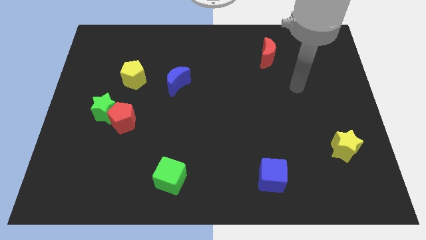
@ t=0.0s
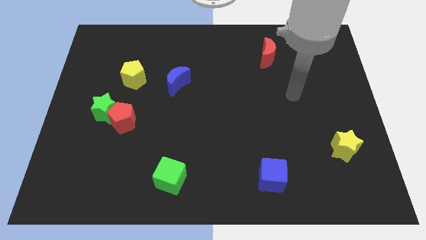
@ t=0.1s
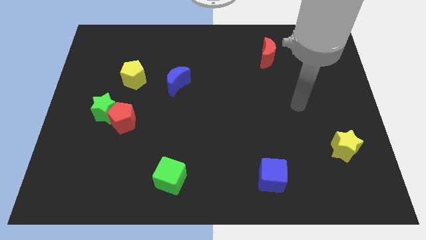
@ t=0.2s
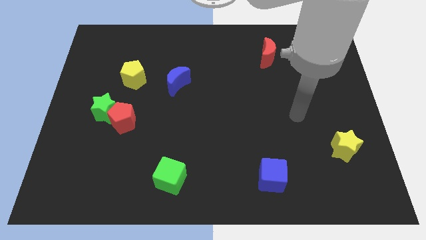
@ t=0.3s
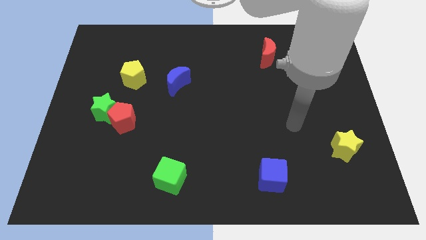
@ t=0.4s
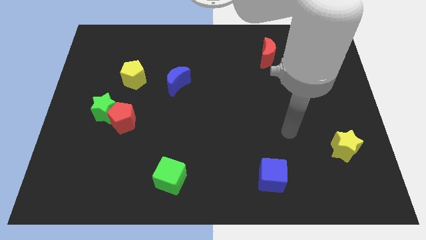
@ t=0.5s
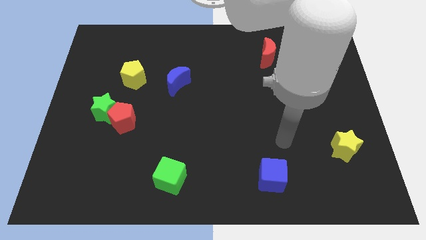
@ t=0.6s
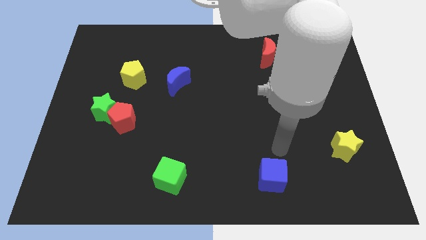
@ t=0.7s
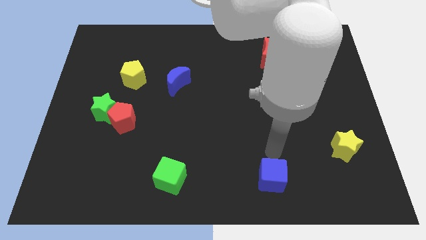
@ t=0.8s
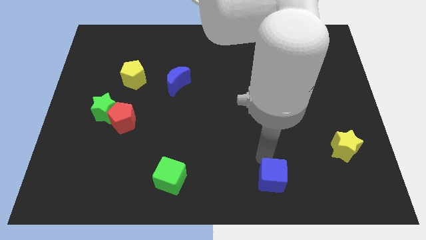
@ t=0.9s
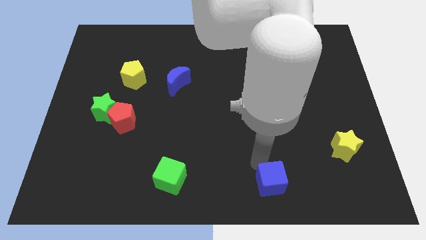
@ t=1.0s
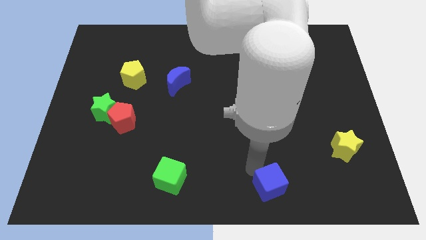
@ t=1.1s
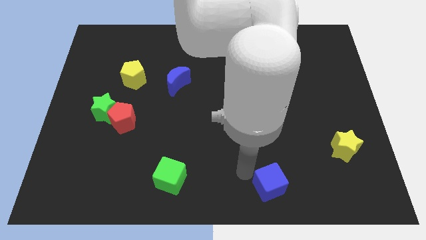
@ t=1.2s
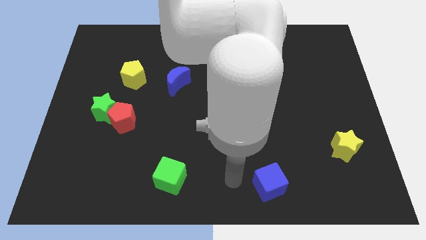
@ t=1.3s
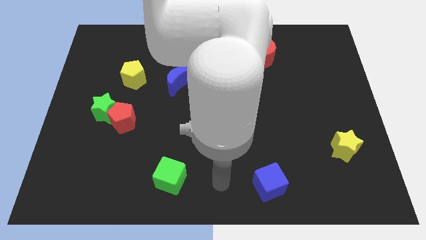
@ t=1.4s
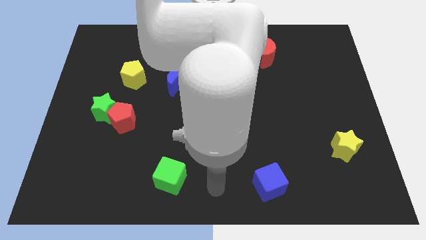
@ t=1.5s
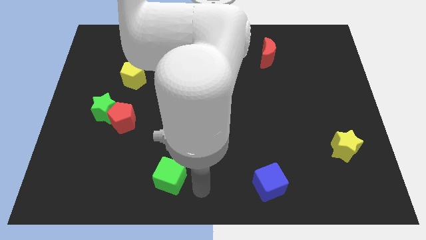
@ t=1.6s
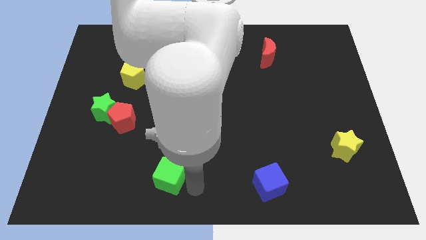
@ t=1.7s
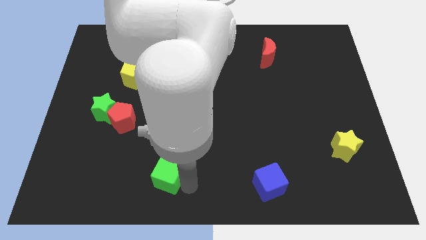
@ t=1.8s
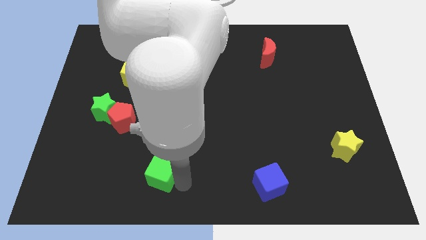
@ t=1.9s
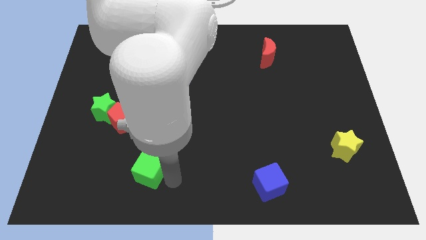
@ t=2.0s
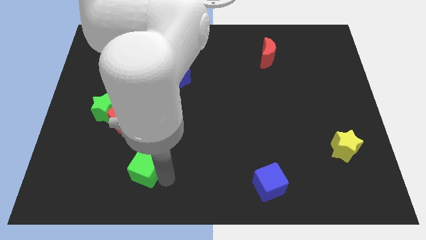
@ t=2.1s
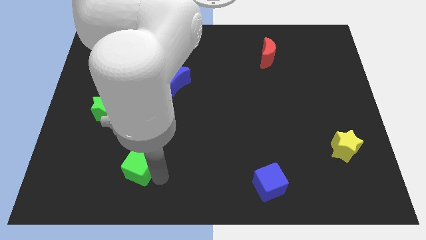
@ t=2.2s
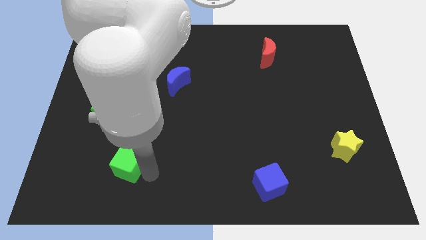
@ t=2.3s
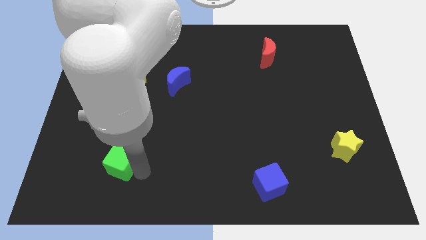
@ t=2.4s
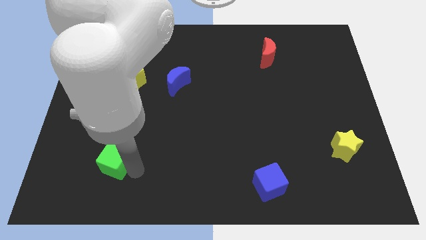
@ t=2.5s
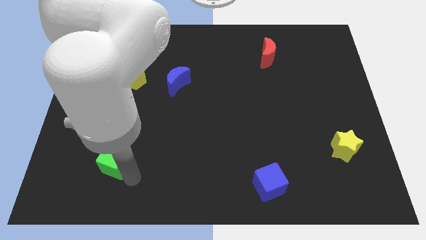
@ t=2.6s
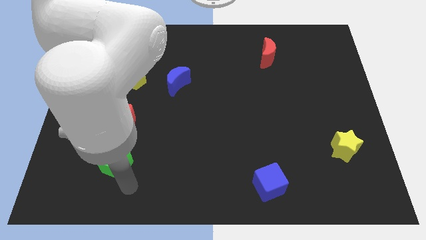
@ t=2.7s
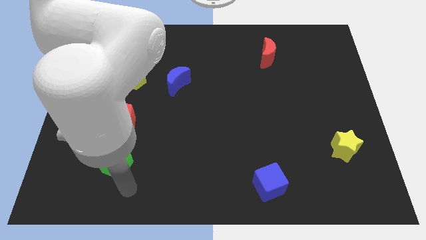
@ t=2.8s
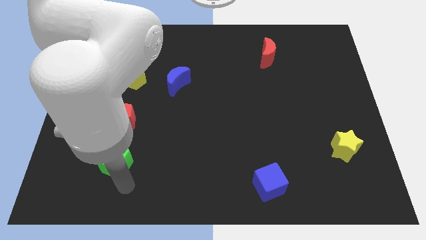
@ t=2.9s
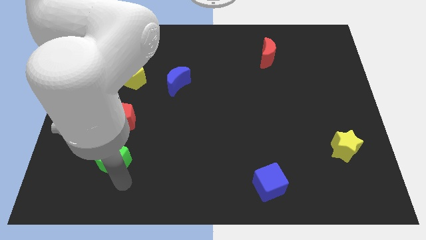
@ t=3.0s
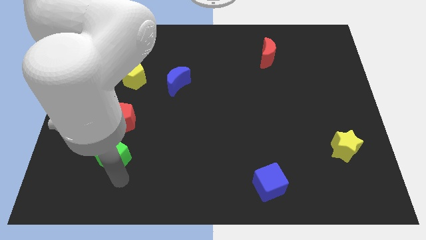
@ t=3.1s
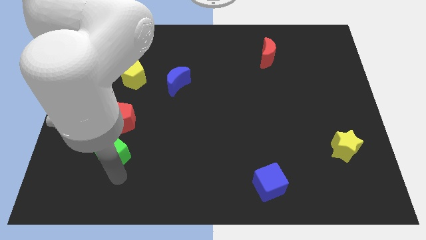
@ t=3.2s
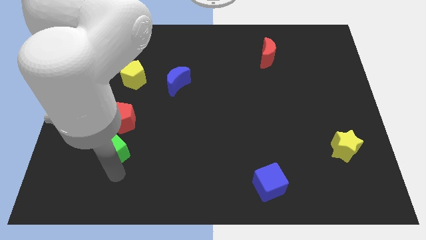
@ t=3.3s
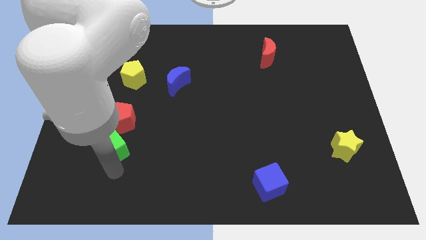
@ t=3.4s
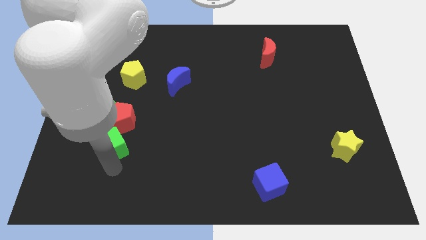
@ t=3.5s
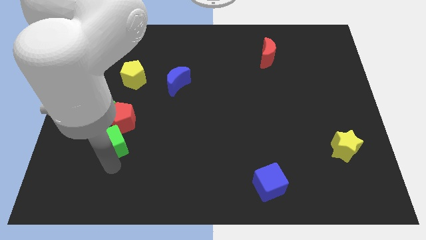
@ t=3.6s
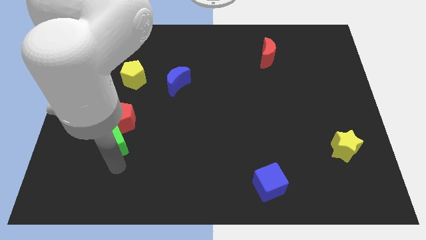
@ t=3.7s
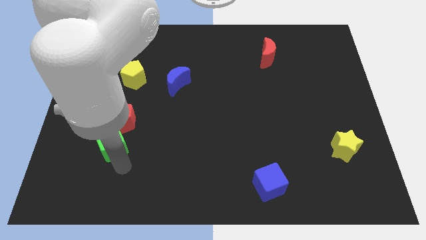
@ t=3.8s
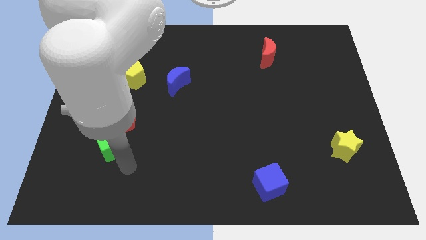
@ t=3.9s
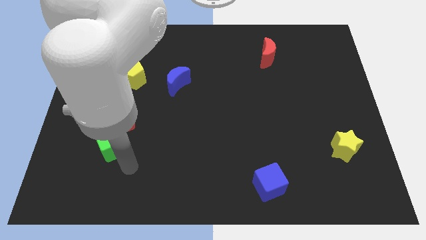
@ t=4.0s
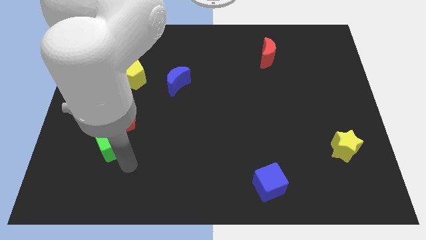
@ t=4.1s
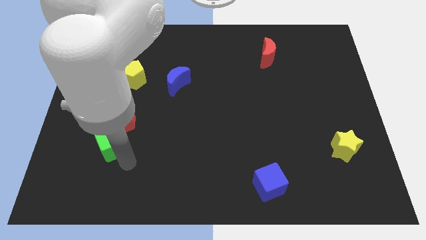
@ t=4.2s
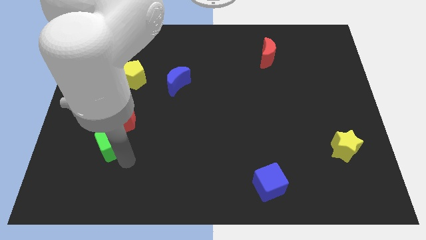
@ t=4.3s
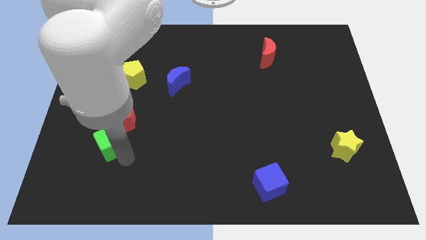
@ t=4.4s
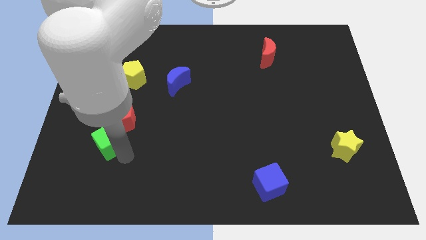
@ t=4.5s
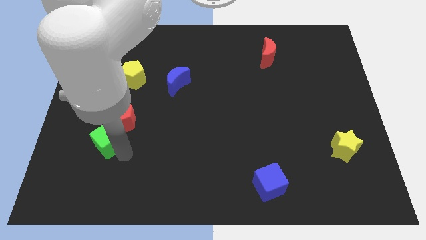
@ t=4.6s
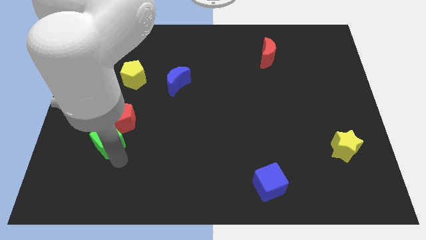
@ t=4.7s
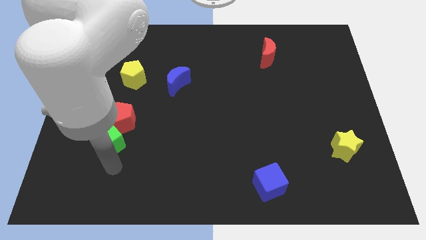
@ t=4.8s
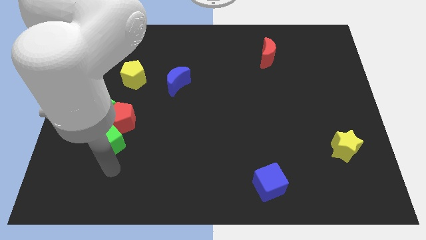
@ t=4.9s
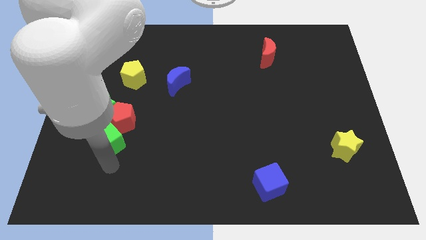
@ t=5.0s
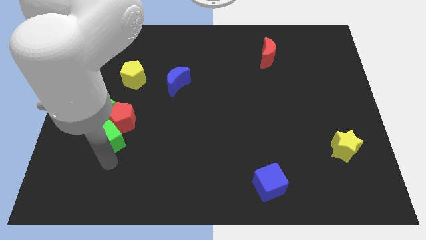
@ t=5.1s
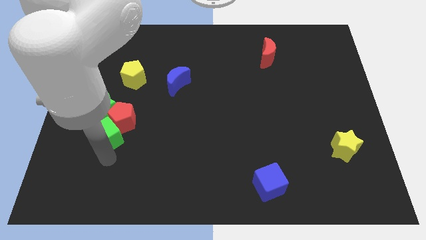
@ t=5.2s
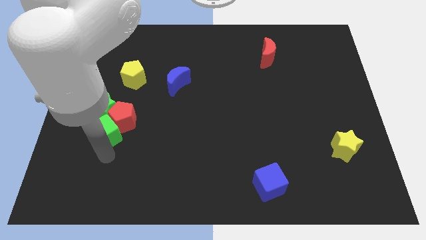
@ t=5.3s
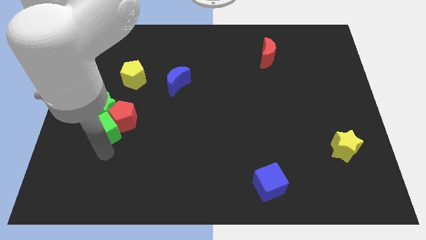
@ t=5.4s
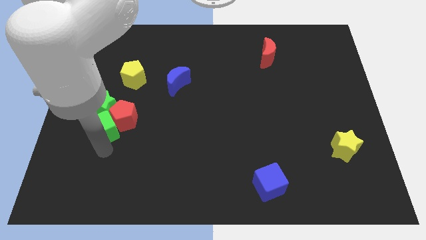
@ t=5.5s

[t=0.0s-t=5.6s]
put the green cube close to the green star

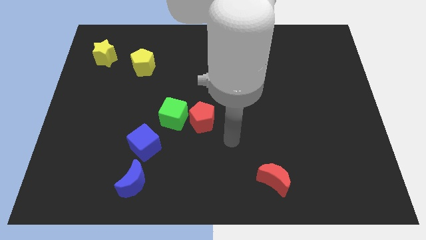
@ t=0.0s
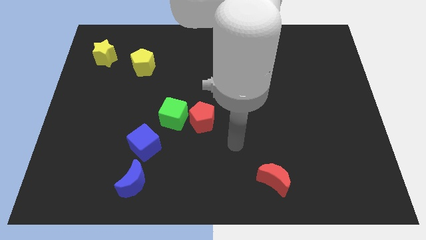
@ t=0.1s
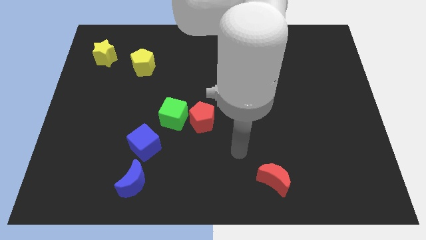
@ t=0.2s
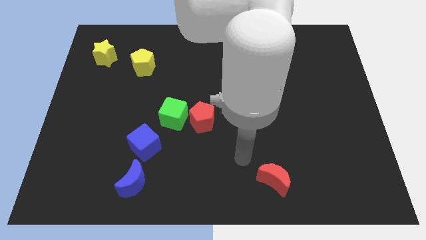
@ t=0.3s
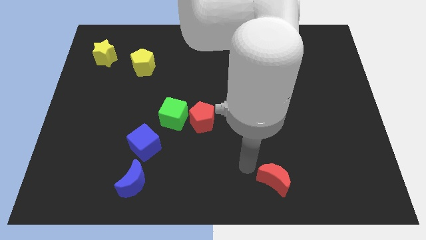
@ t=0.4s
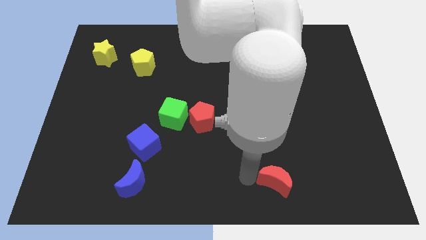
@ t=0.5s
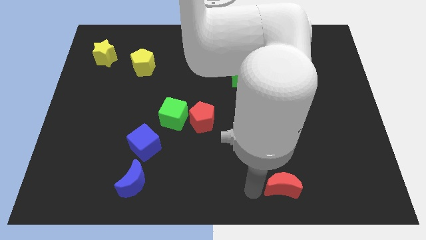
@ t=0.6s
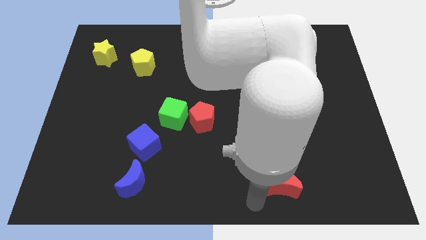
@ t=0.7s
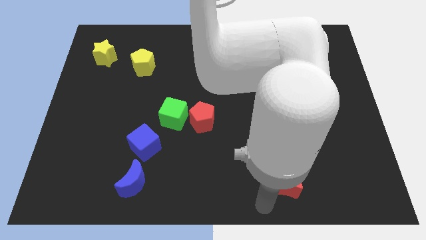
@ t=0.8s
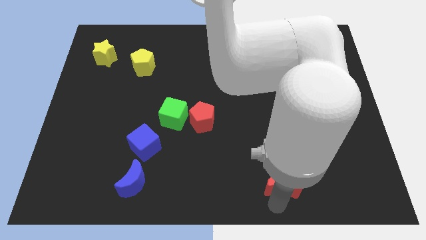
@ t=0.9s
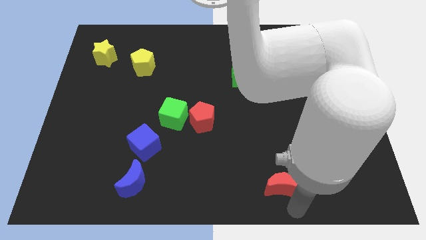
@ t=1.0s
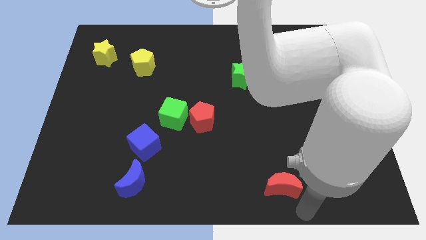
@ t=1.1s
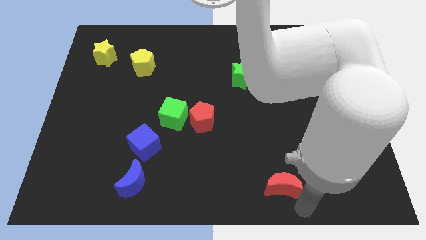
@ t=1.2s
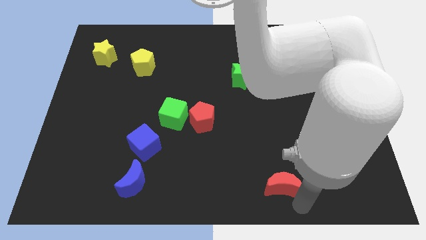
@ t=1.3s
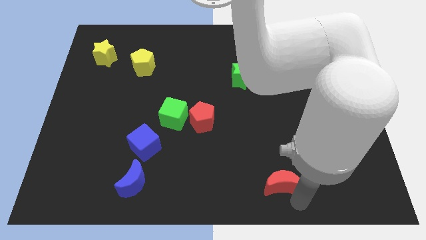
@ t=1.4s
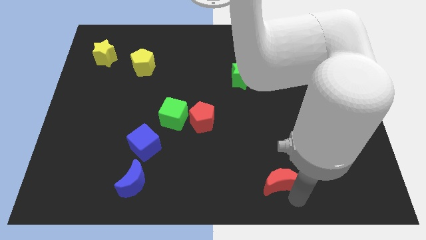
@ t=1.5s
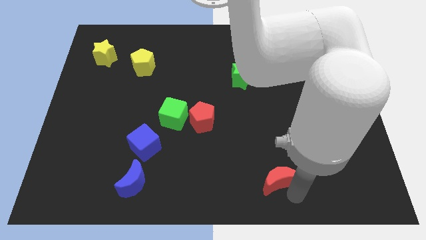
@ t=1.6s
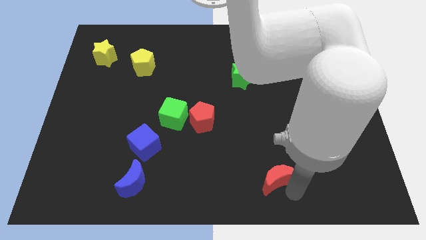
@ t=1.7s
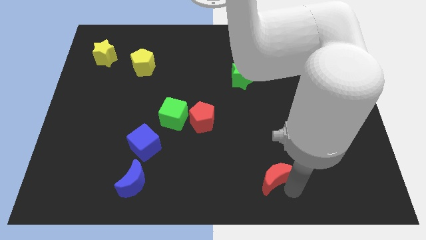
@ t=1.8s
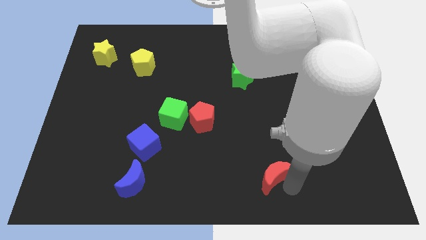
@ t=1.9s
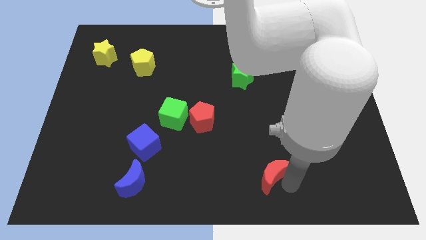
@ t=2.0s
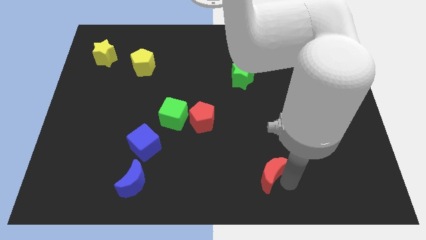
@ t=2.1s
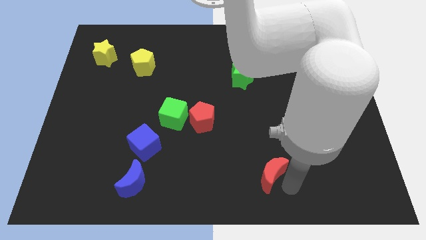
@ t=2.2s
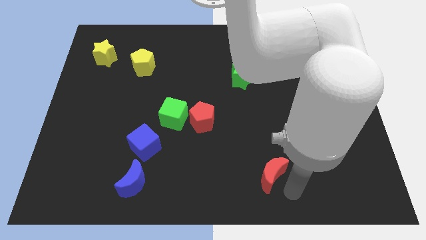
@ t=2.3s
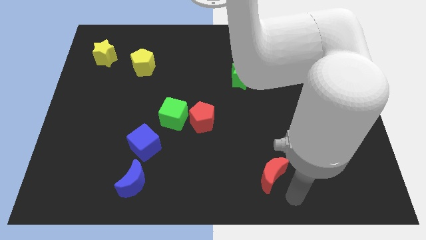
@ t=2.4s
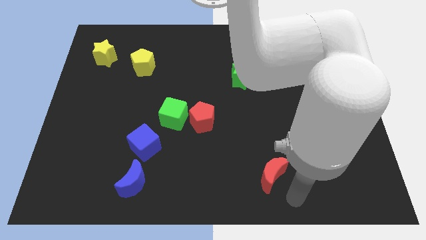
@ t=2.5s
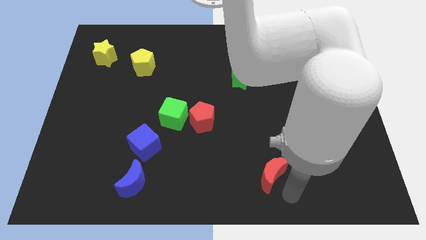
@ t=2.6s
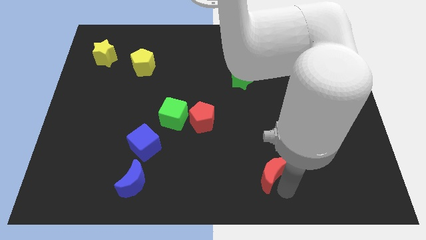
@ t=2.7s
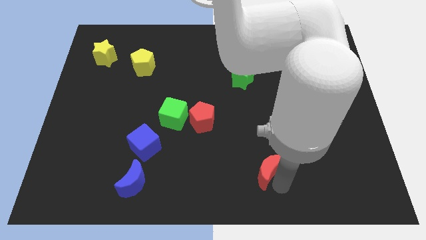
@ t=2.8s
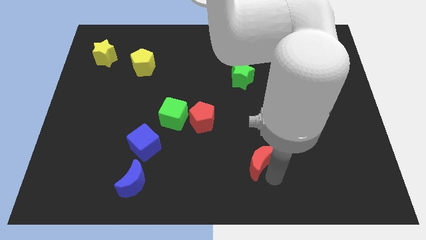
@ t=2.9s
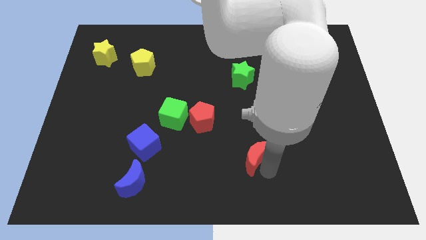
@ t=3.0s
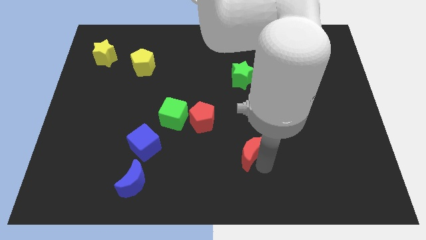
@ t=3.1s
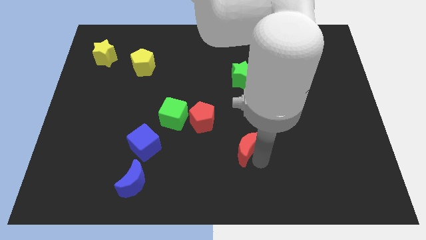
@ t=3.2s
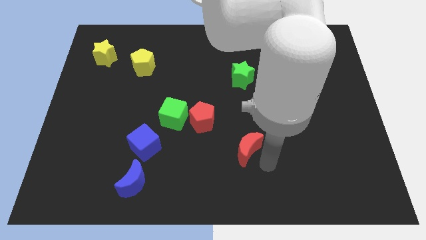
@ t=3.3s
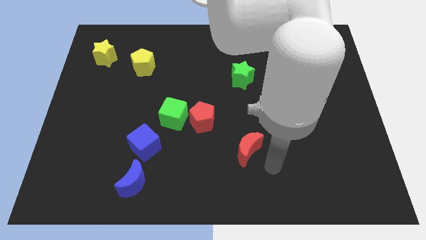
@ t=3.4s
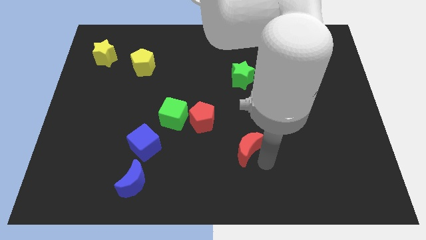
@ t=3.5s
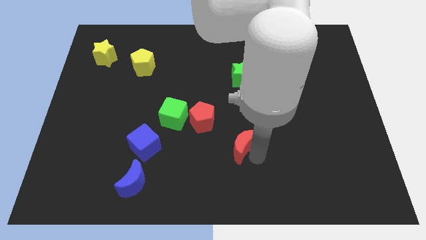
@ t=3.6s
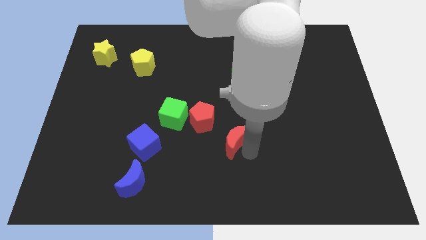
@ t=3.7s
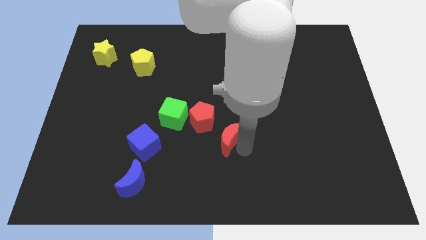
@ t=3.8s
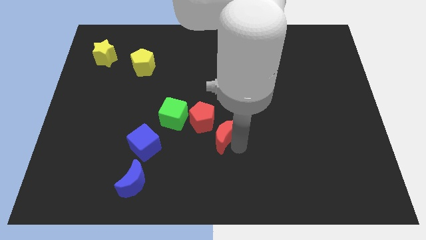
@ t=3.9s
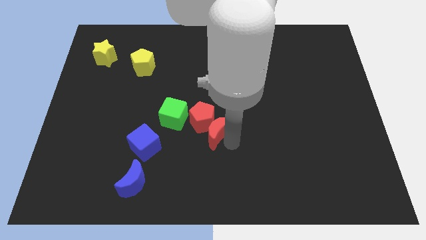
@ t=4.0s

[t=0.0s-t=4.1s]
push the red moon close to the red pentagon
